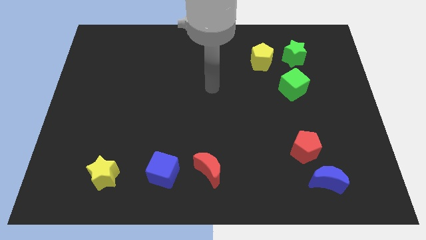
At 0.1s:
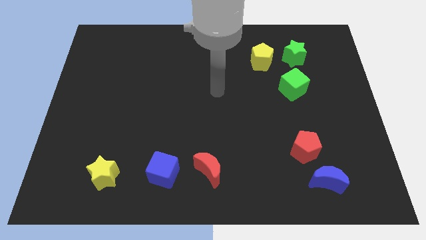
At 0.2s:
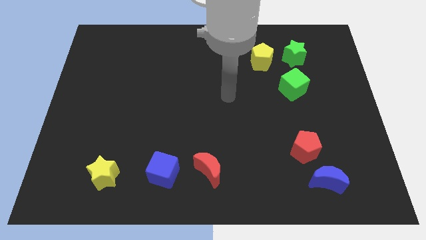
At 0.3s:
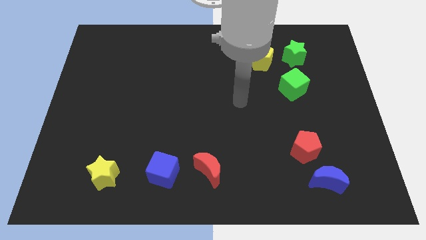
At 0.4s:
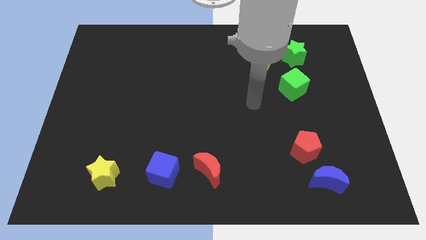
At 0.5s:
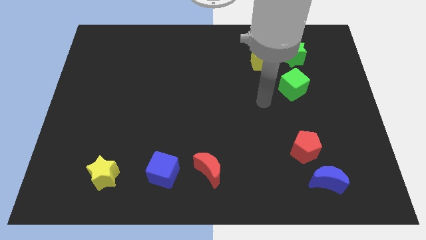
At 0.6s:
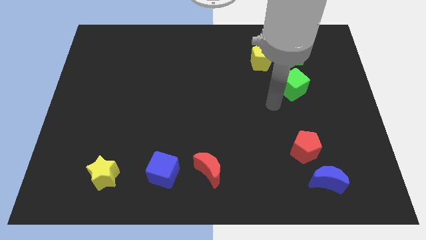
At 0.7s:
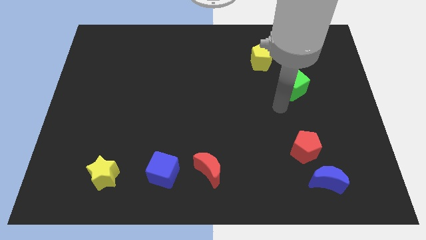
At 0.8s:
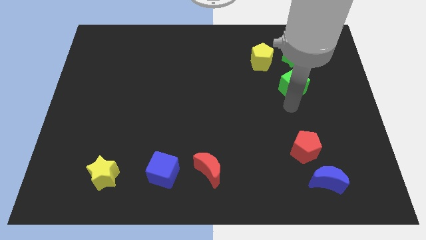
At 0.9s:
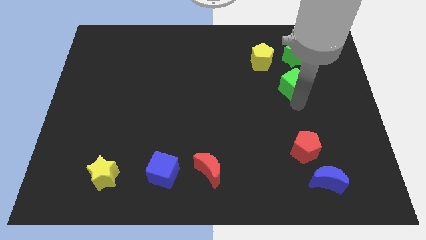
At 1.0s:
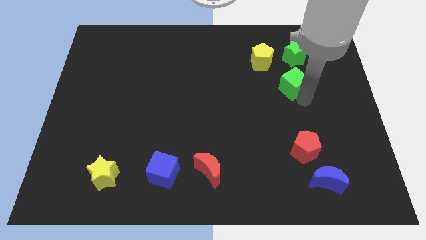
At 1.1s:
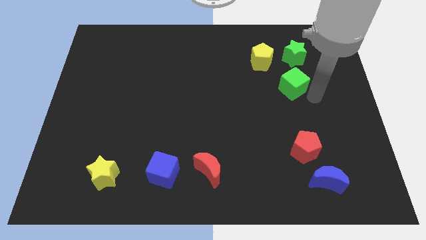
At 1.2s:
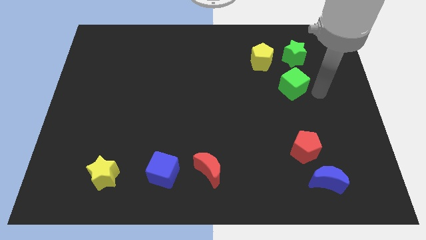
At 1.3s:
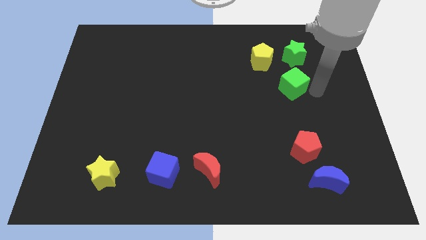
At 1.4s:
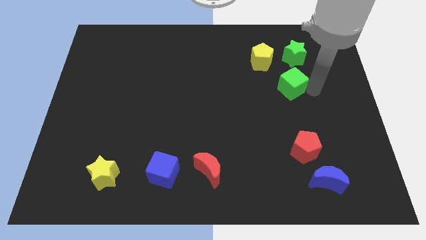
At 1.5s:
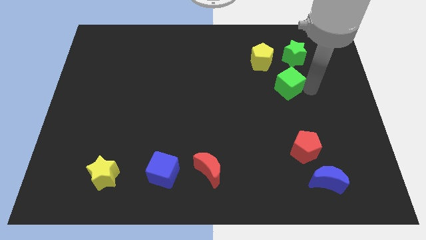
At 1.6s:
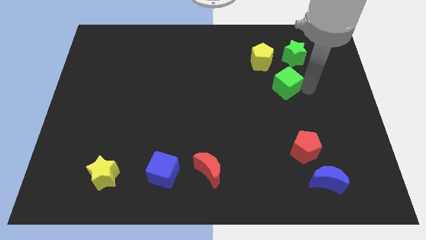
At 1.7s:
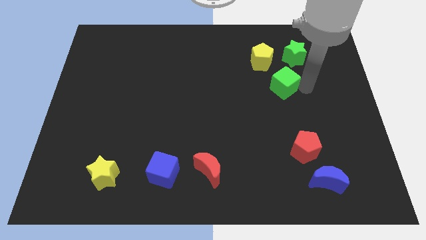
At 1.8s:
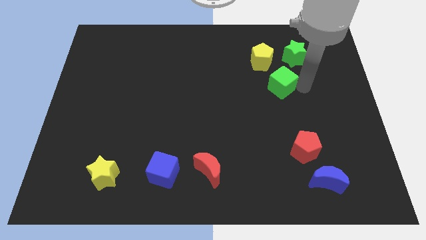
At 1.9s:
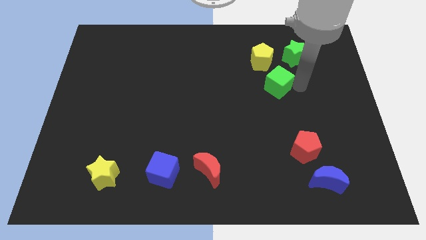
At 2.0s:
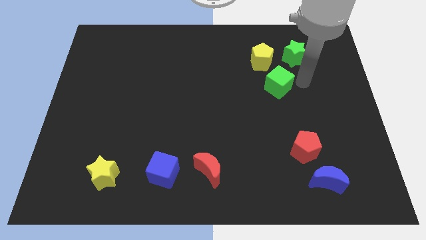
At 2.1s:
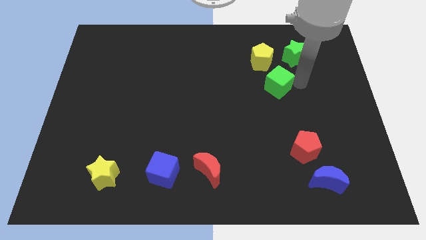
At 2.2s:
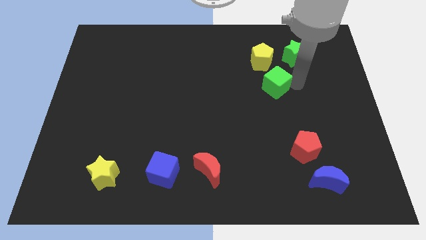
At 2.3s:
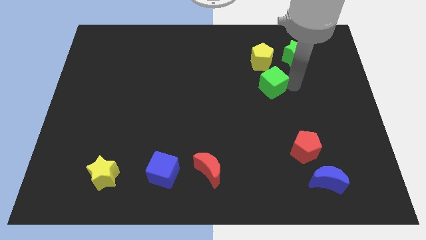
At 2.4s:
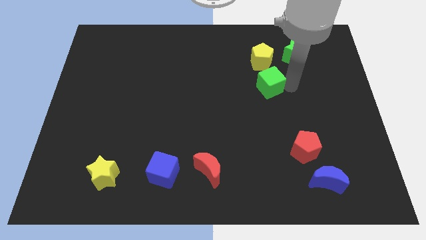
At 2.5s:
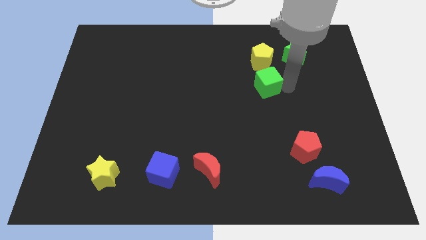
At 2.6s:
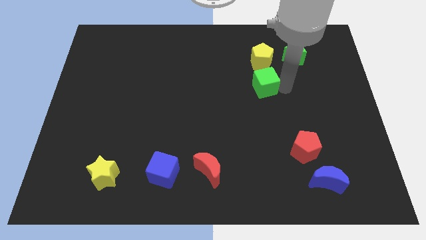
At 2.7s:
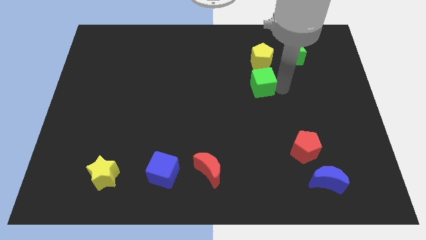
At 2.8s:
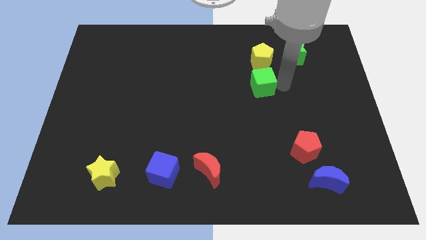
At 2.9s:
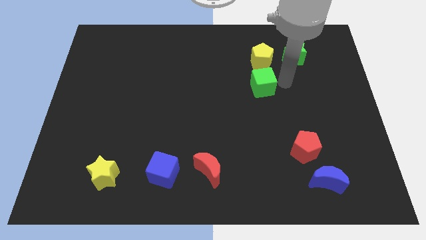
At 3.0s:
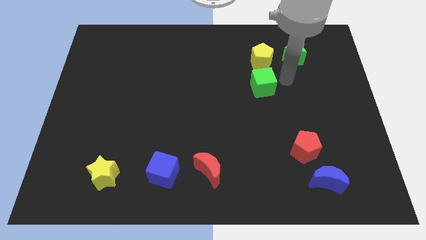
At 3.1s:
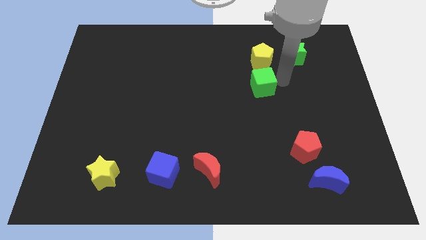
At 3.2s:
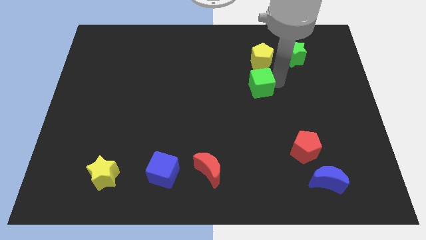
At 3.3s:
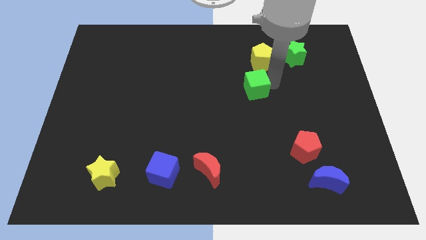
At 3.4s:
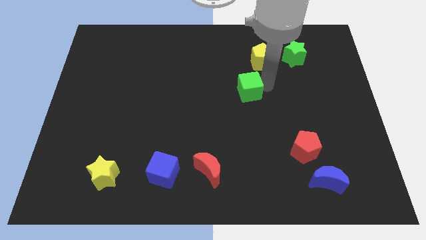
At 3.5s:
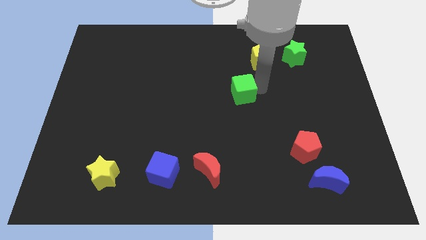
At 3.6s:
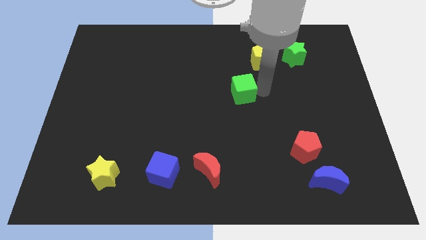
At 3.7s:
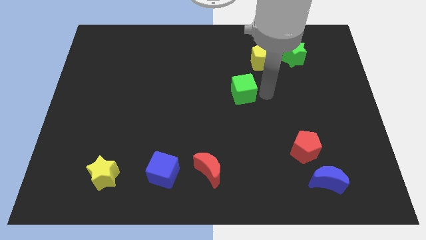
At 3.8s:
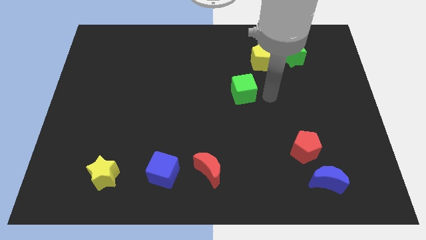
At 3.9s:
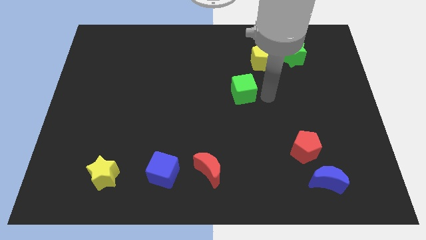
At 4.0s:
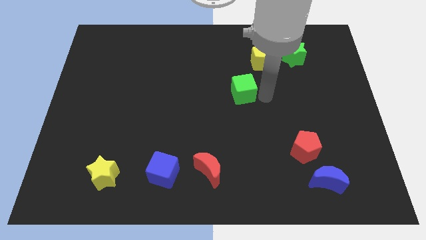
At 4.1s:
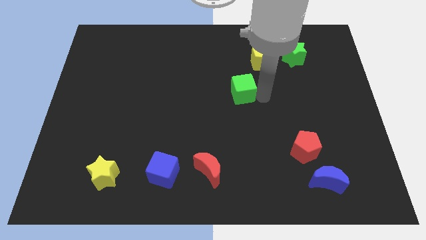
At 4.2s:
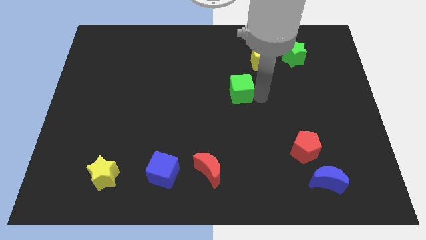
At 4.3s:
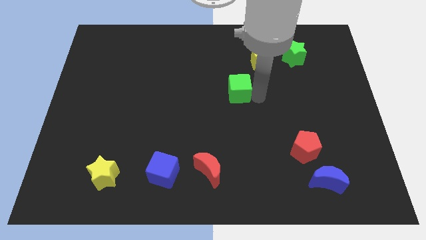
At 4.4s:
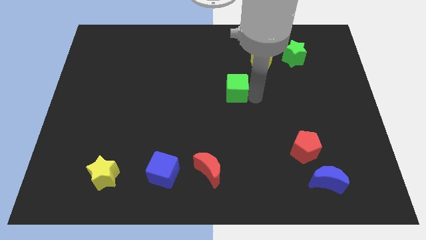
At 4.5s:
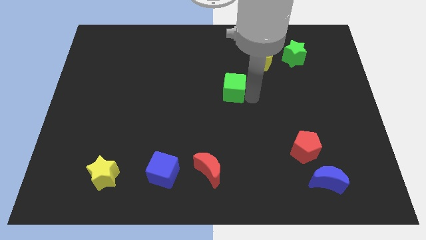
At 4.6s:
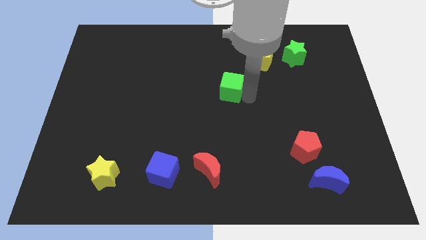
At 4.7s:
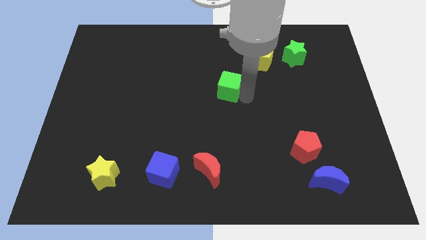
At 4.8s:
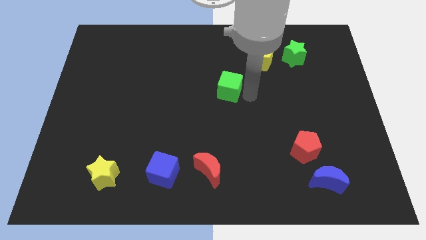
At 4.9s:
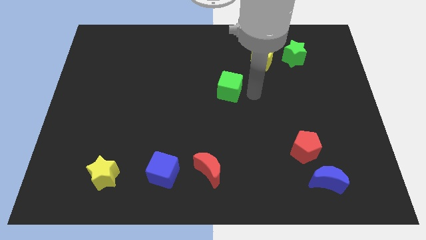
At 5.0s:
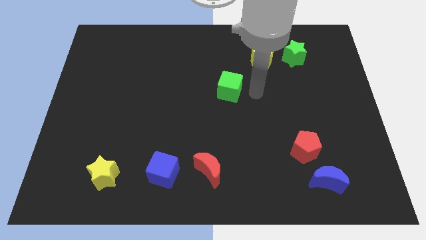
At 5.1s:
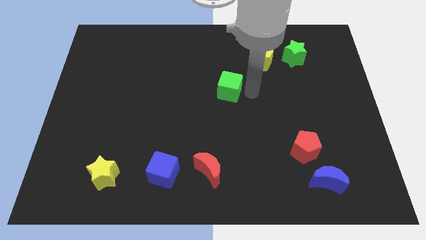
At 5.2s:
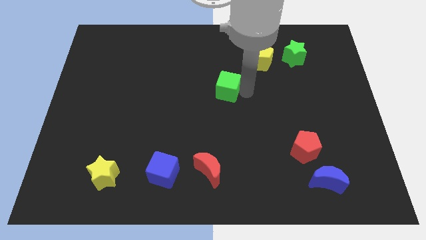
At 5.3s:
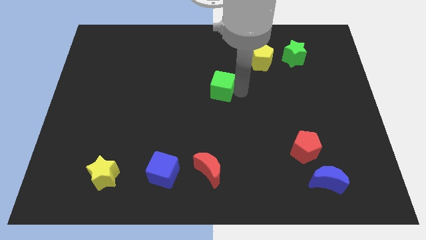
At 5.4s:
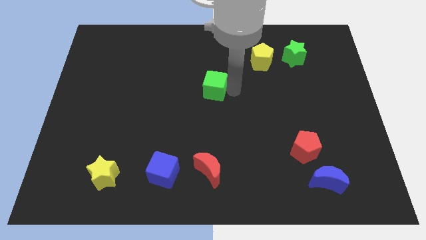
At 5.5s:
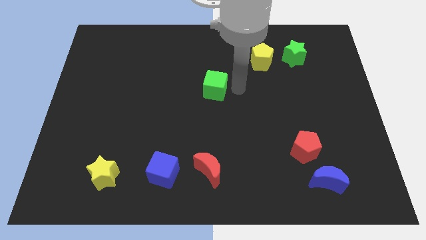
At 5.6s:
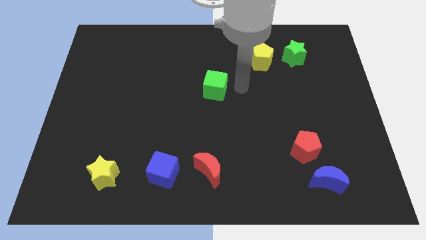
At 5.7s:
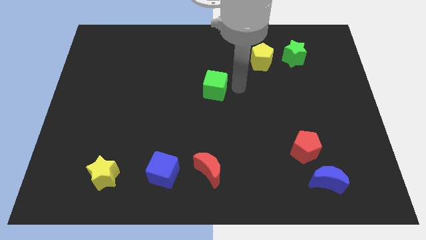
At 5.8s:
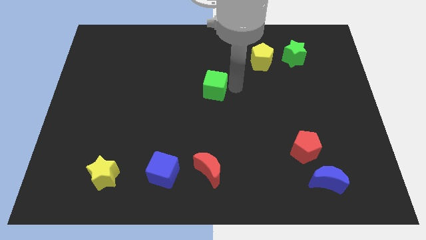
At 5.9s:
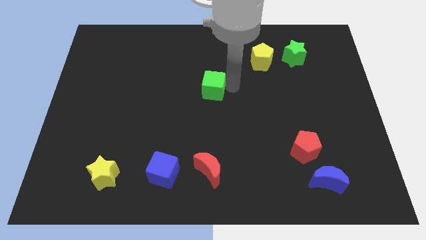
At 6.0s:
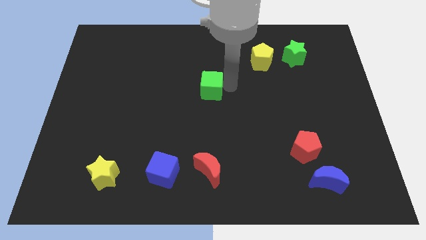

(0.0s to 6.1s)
push the green cube left

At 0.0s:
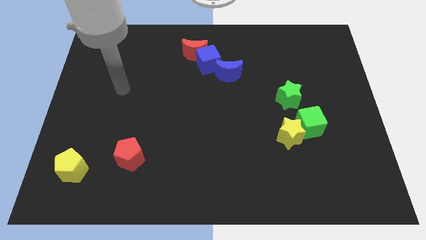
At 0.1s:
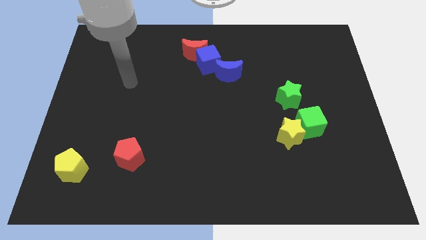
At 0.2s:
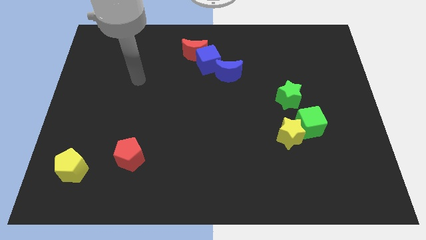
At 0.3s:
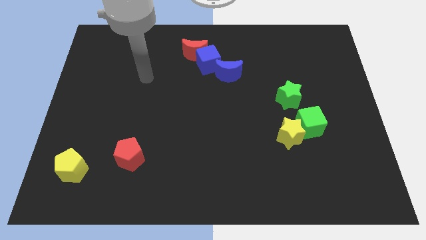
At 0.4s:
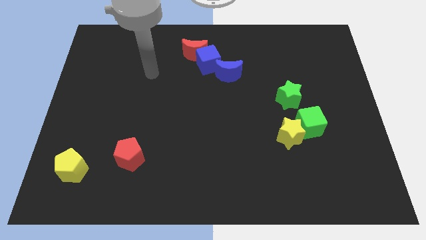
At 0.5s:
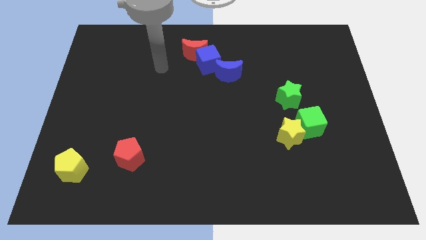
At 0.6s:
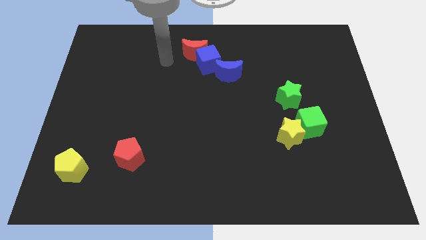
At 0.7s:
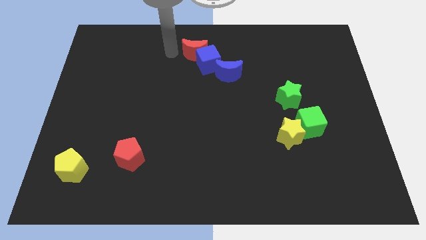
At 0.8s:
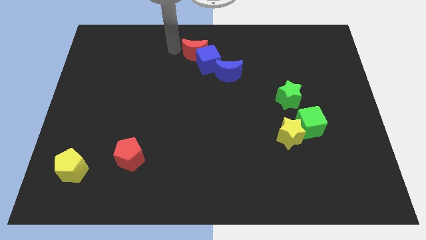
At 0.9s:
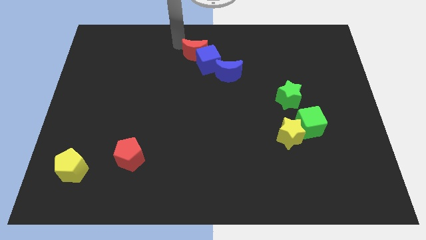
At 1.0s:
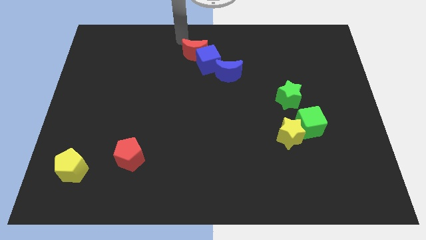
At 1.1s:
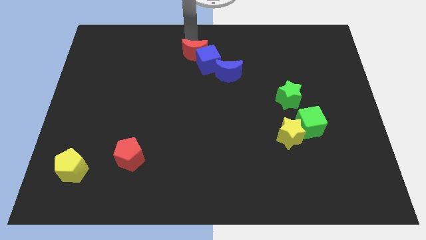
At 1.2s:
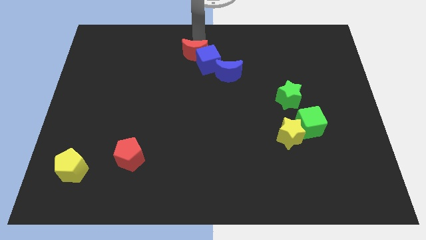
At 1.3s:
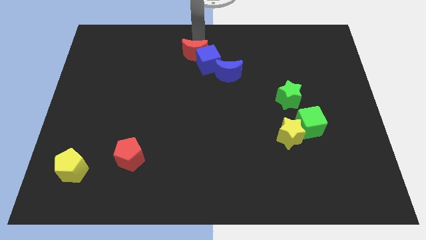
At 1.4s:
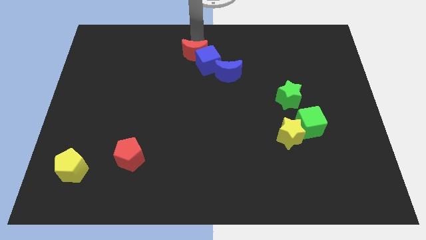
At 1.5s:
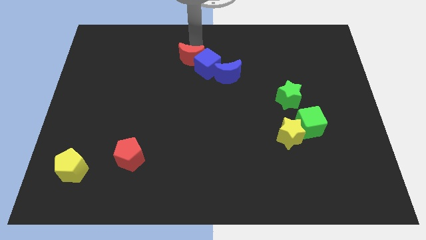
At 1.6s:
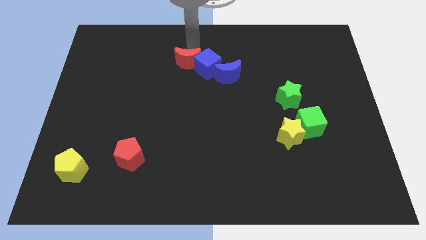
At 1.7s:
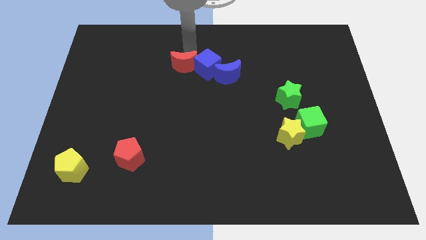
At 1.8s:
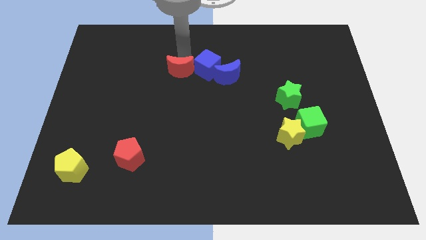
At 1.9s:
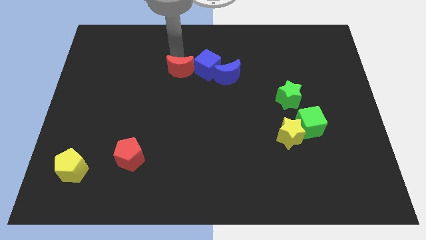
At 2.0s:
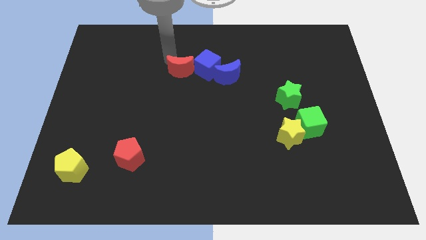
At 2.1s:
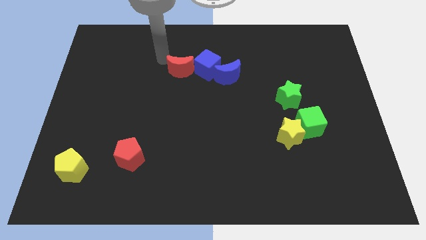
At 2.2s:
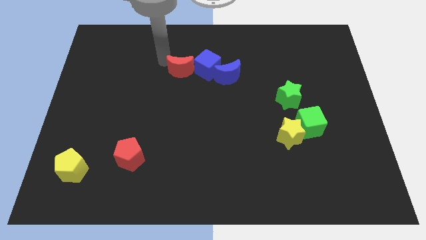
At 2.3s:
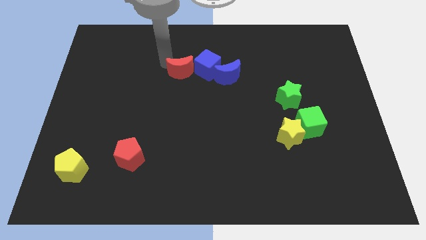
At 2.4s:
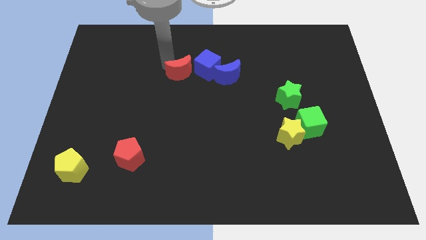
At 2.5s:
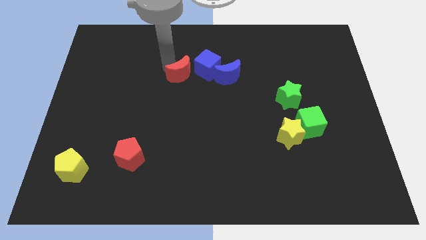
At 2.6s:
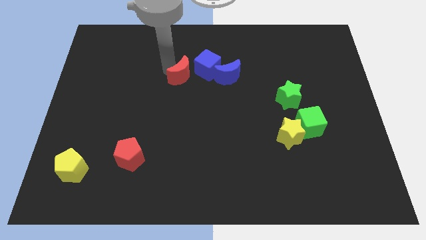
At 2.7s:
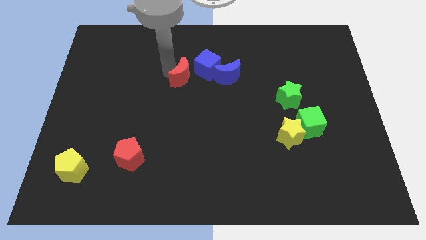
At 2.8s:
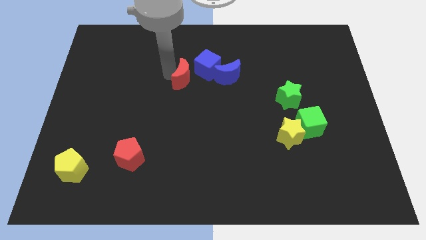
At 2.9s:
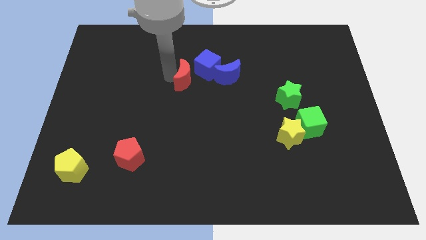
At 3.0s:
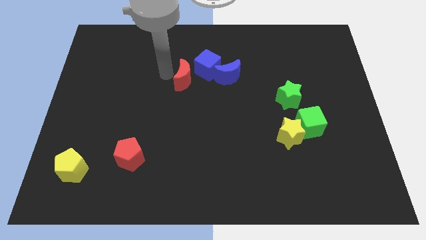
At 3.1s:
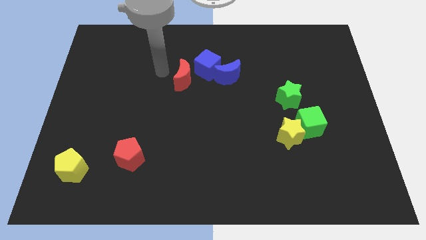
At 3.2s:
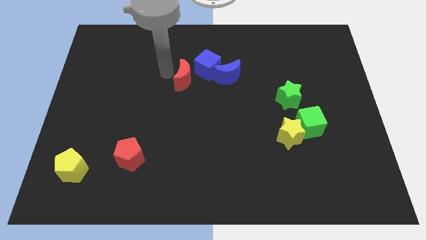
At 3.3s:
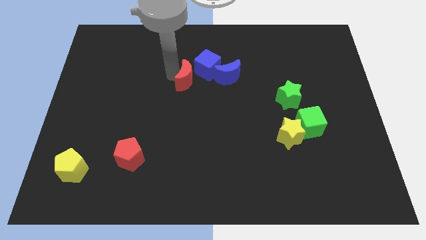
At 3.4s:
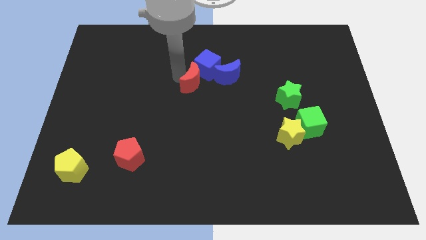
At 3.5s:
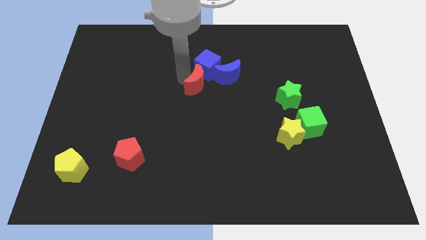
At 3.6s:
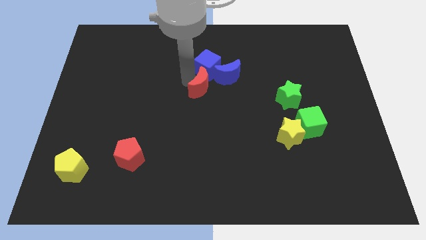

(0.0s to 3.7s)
slightly move the red moon down and right diagonally
